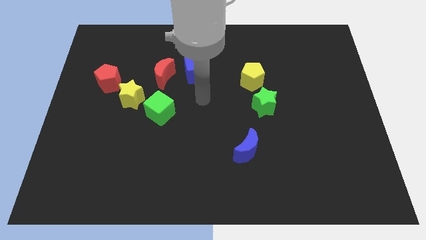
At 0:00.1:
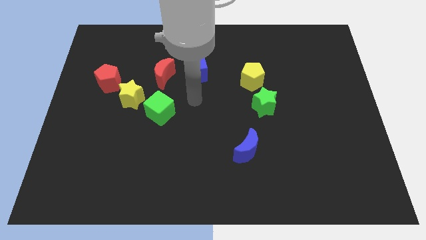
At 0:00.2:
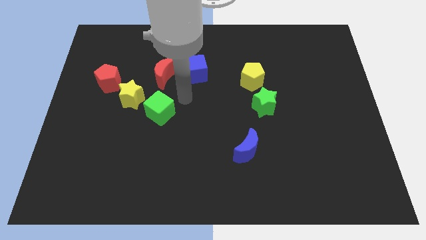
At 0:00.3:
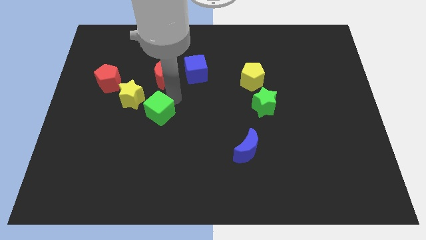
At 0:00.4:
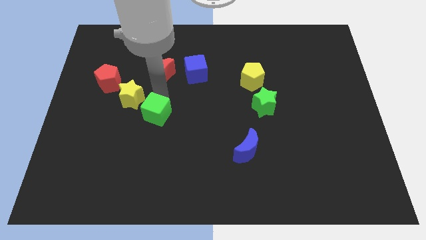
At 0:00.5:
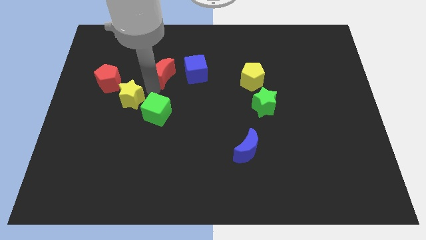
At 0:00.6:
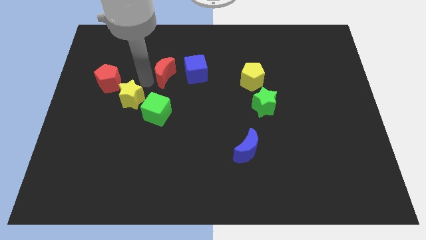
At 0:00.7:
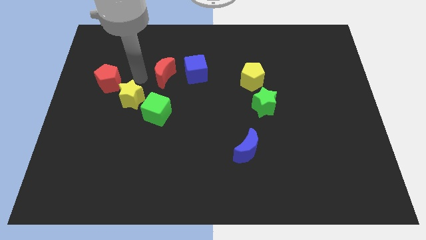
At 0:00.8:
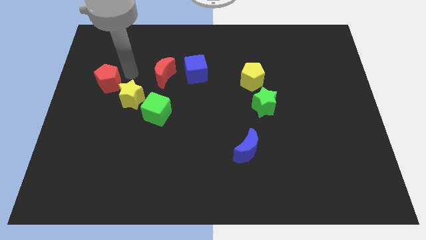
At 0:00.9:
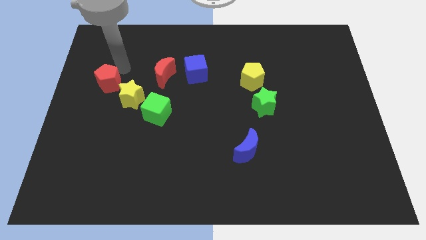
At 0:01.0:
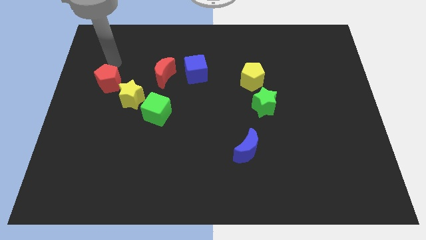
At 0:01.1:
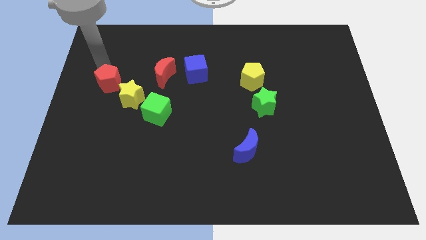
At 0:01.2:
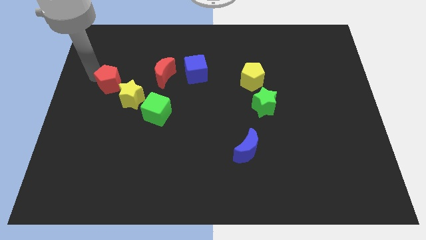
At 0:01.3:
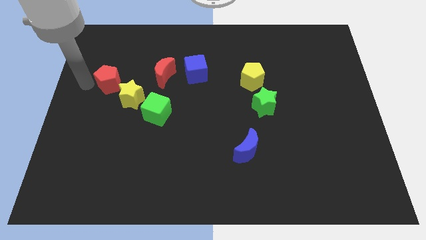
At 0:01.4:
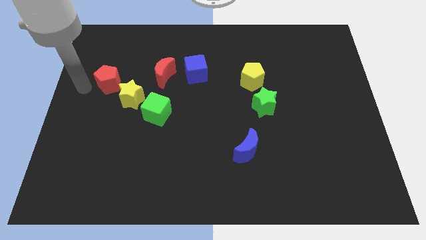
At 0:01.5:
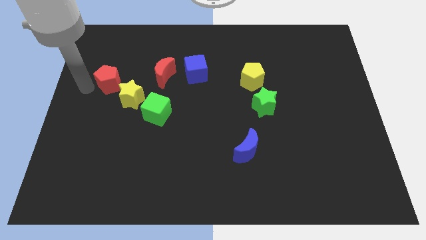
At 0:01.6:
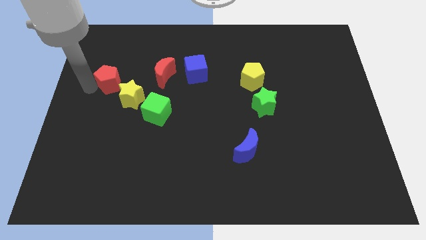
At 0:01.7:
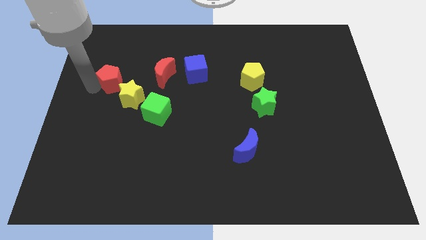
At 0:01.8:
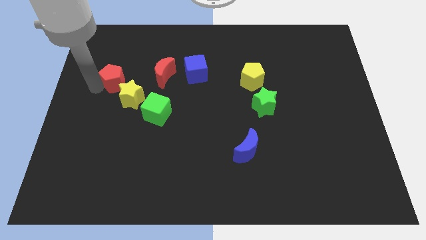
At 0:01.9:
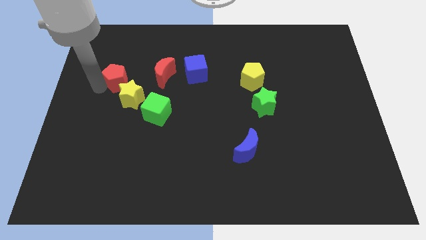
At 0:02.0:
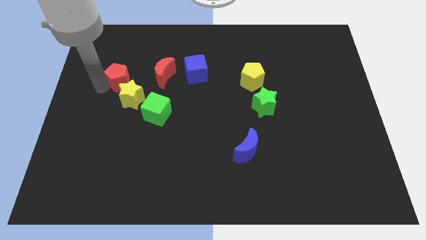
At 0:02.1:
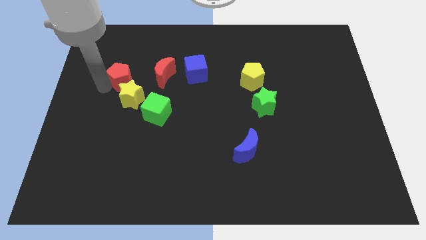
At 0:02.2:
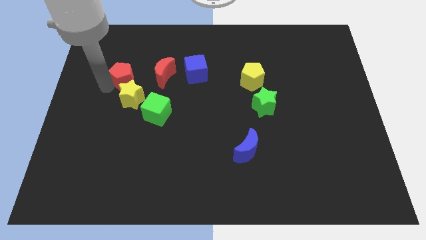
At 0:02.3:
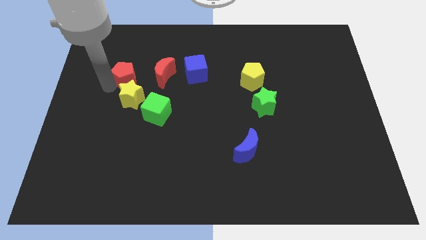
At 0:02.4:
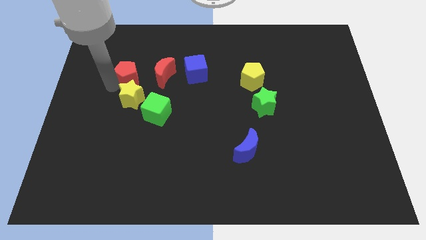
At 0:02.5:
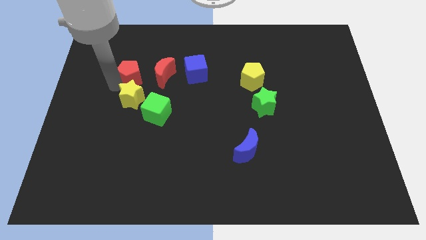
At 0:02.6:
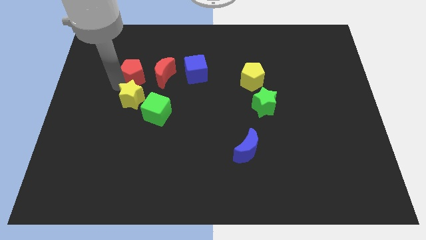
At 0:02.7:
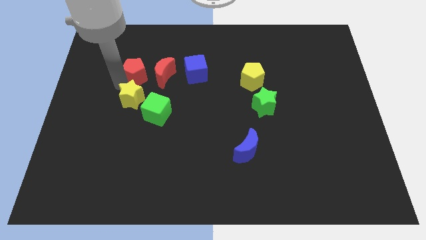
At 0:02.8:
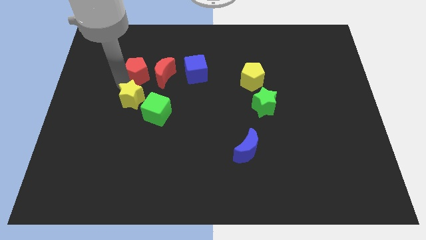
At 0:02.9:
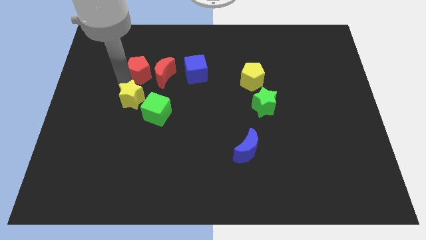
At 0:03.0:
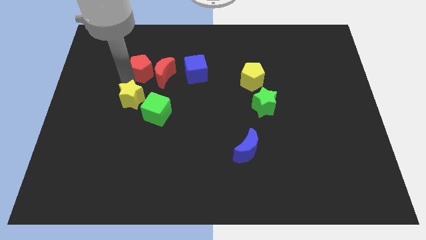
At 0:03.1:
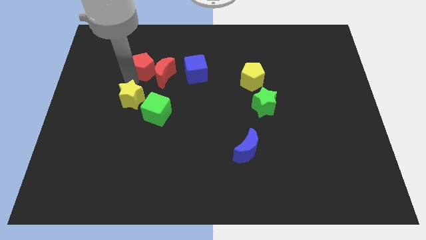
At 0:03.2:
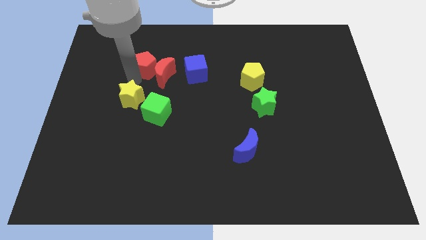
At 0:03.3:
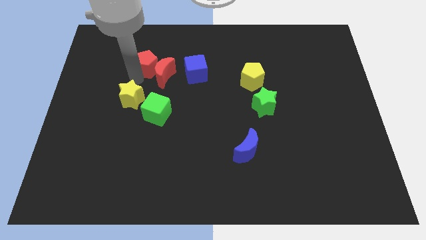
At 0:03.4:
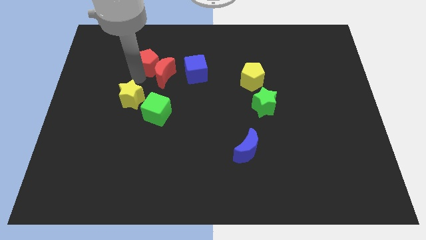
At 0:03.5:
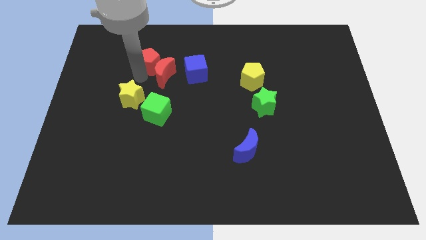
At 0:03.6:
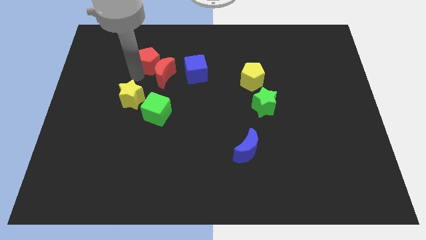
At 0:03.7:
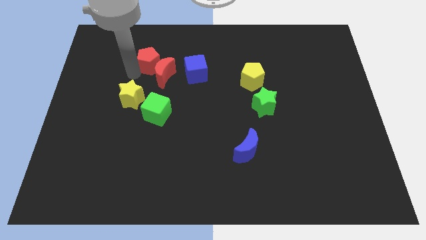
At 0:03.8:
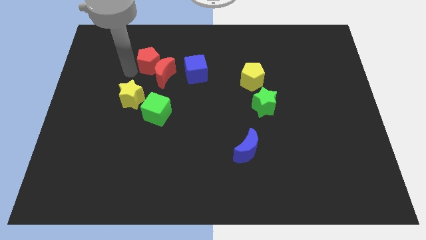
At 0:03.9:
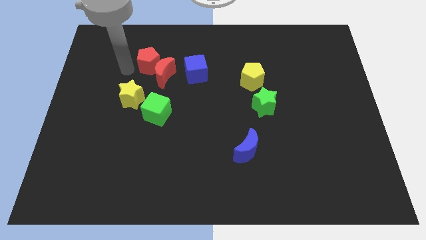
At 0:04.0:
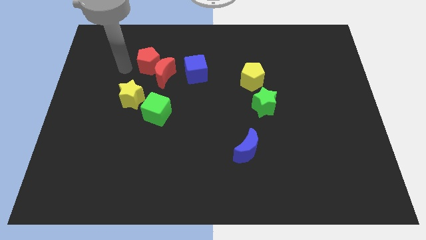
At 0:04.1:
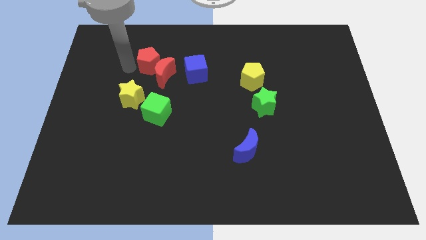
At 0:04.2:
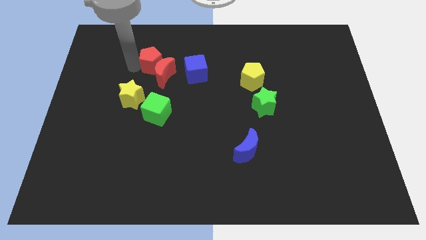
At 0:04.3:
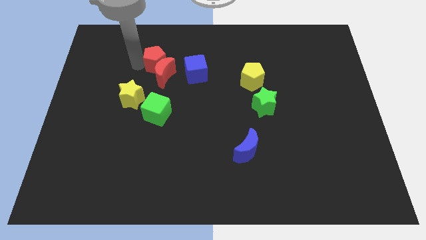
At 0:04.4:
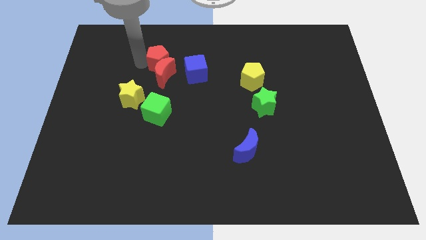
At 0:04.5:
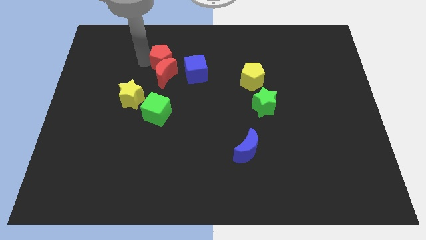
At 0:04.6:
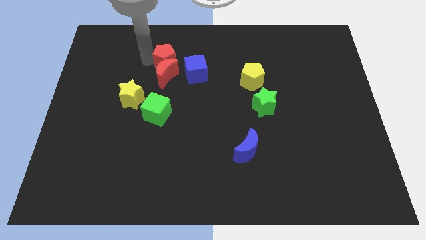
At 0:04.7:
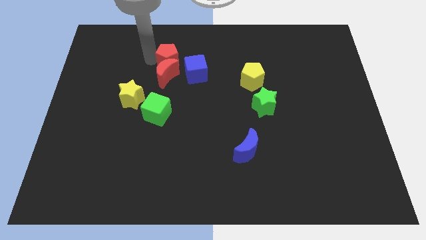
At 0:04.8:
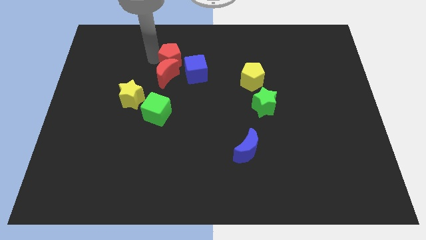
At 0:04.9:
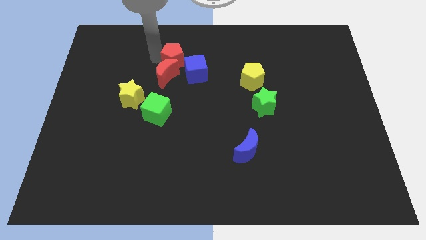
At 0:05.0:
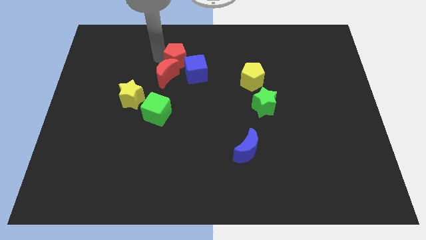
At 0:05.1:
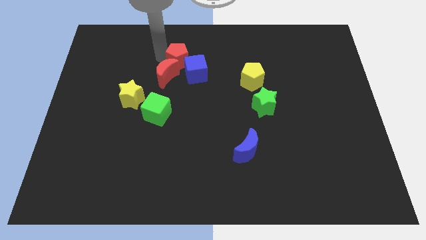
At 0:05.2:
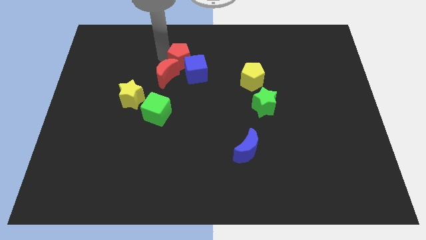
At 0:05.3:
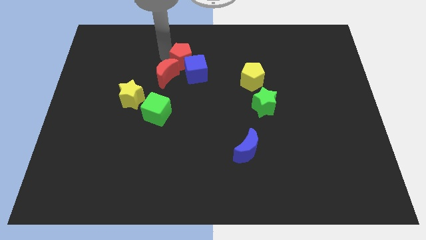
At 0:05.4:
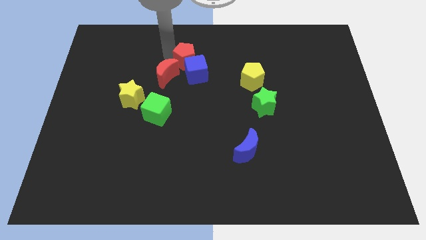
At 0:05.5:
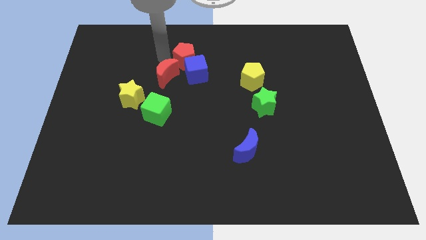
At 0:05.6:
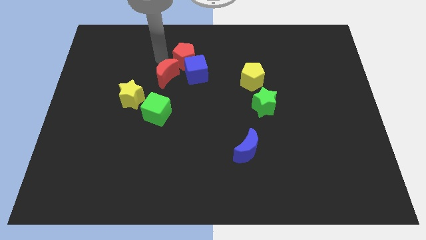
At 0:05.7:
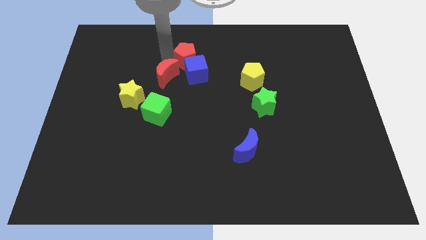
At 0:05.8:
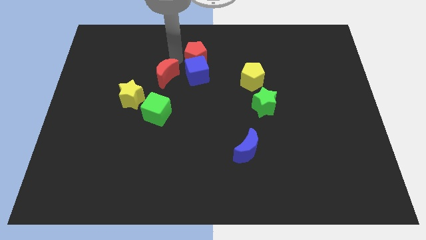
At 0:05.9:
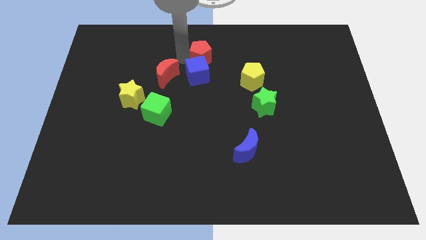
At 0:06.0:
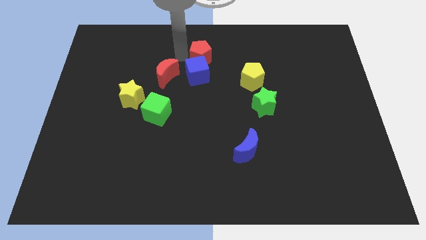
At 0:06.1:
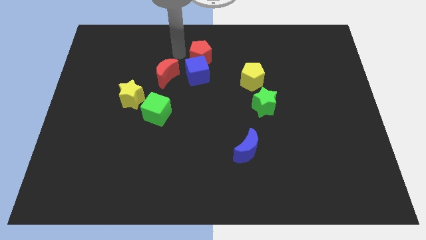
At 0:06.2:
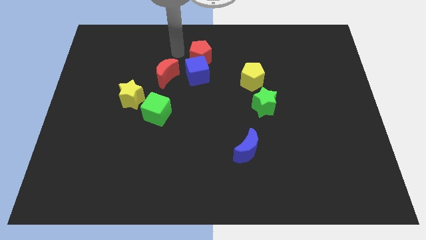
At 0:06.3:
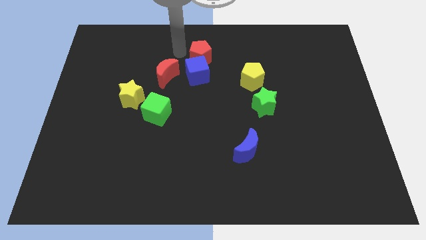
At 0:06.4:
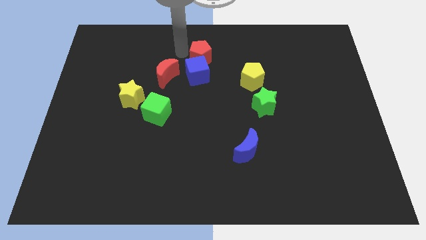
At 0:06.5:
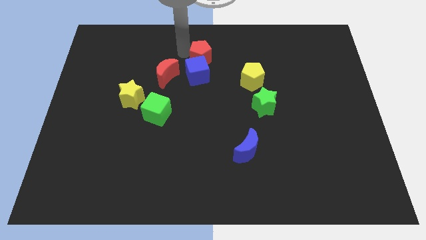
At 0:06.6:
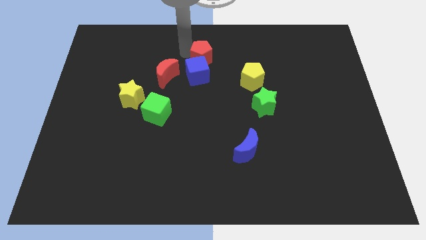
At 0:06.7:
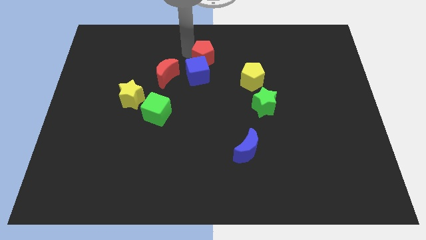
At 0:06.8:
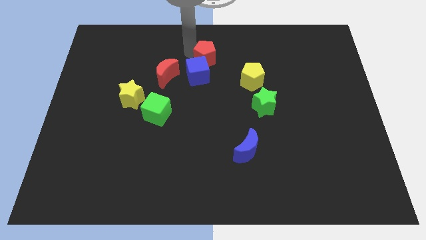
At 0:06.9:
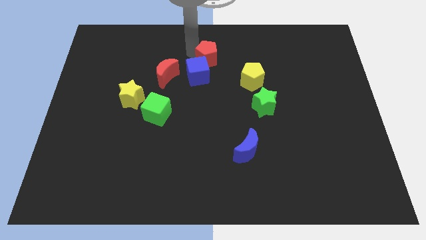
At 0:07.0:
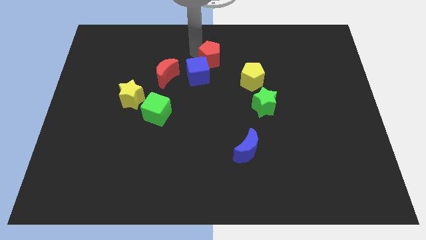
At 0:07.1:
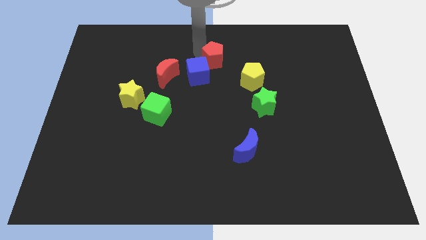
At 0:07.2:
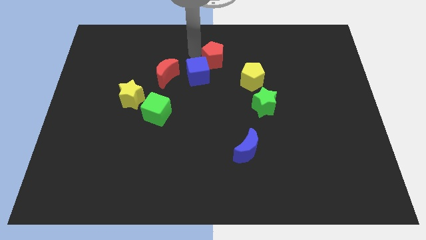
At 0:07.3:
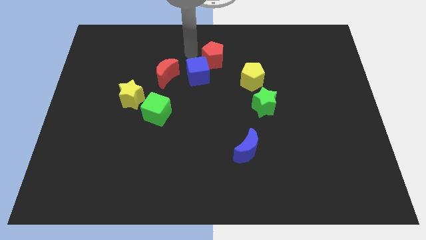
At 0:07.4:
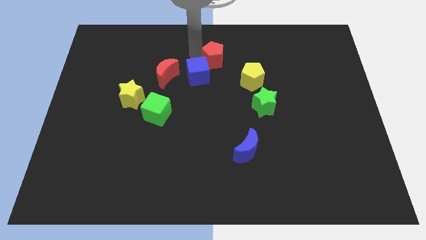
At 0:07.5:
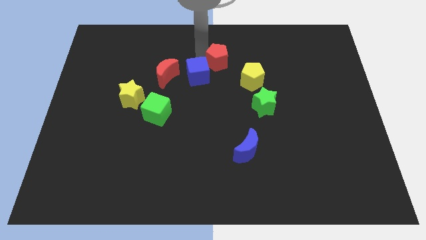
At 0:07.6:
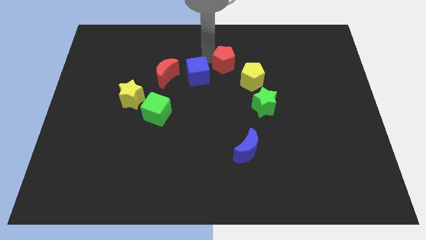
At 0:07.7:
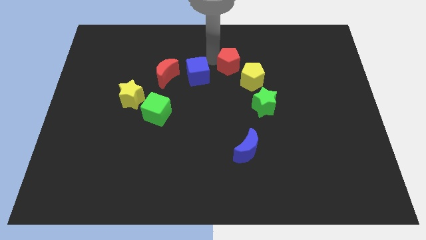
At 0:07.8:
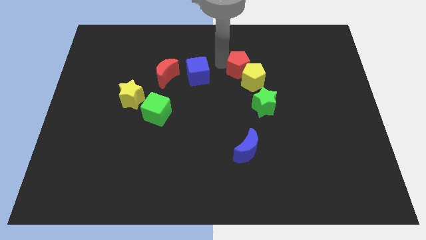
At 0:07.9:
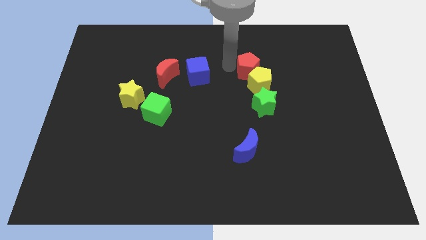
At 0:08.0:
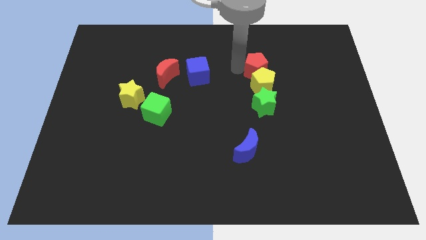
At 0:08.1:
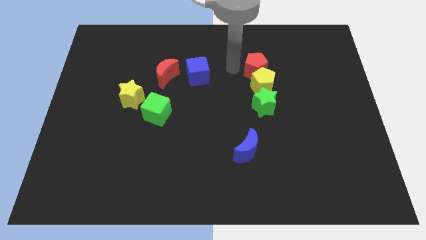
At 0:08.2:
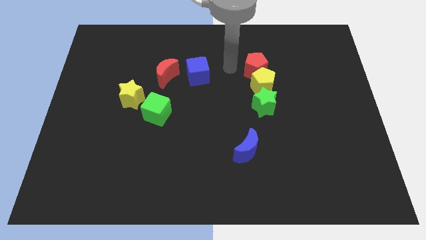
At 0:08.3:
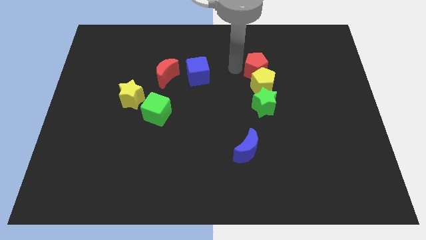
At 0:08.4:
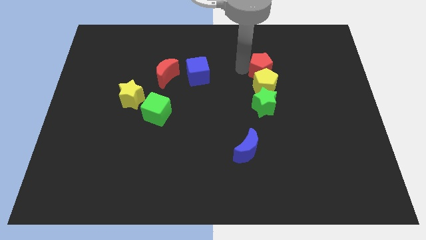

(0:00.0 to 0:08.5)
slide the red pentagon diagonally up and to the right of the yellow pentagon
